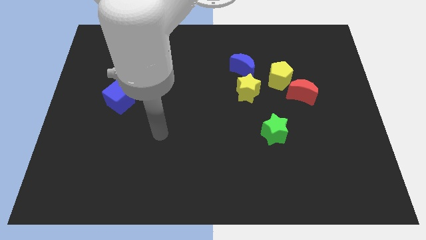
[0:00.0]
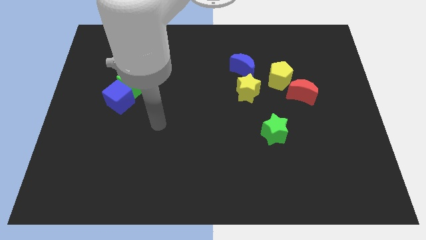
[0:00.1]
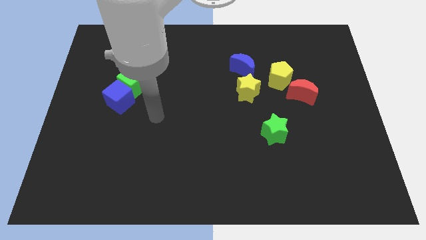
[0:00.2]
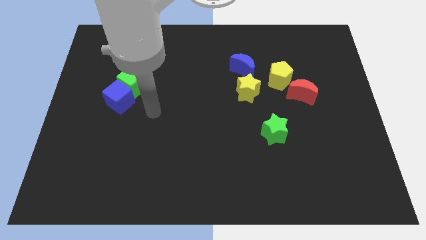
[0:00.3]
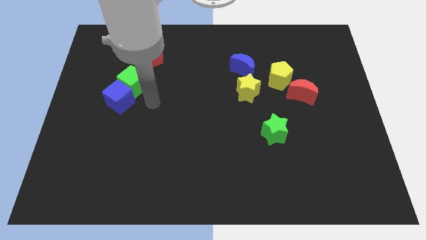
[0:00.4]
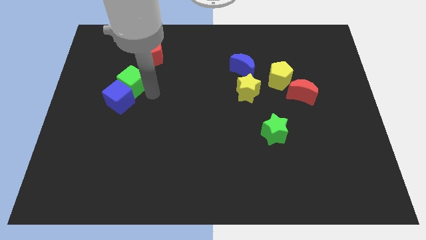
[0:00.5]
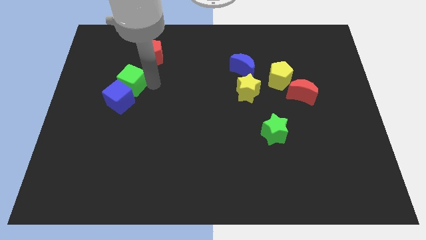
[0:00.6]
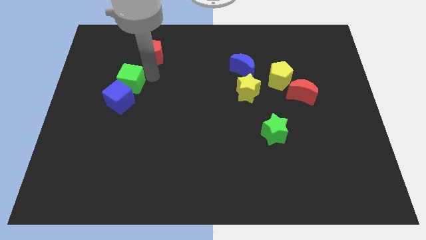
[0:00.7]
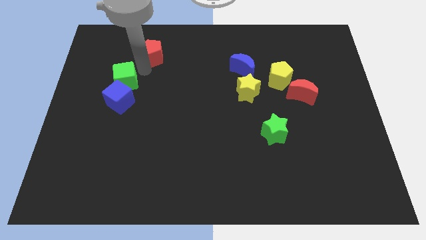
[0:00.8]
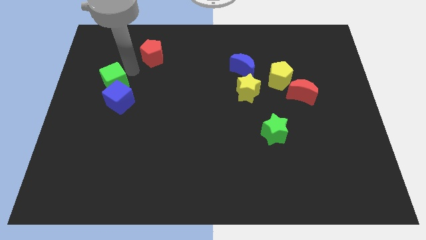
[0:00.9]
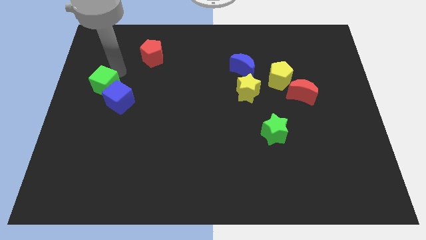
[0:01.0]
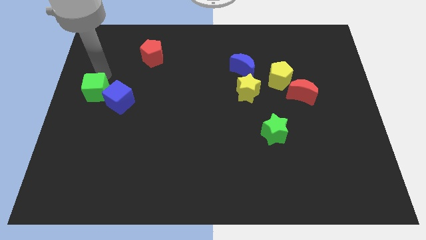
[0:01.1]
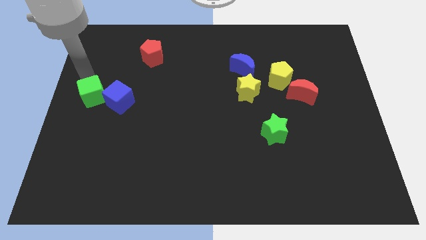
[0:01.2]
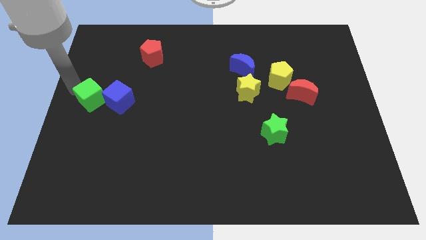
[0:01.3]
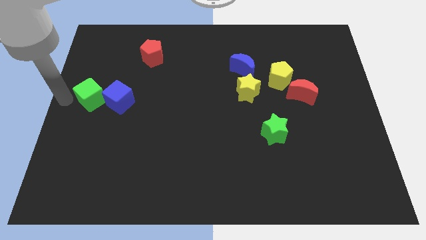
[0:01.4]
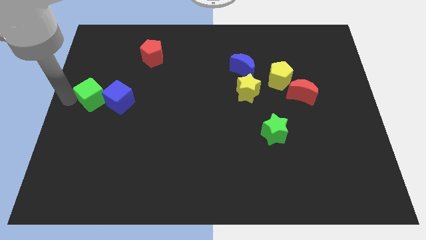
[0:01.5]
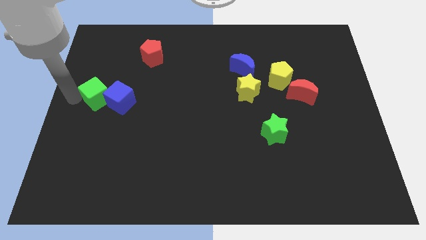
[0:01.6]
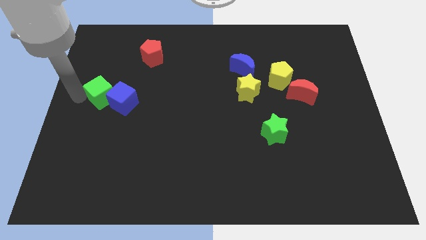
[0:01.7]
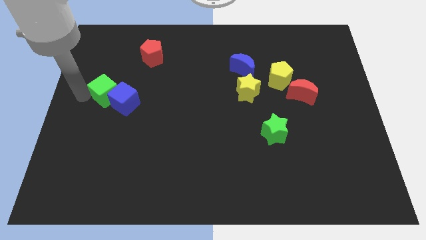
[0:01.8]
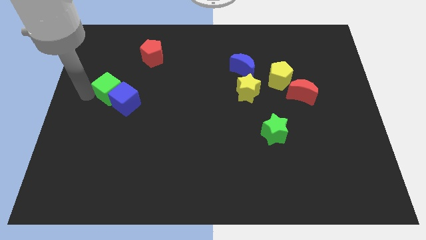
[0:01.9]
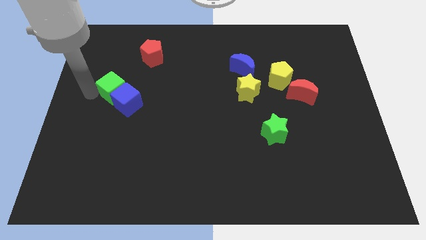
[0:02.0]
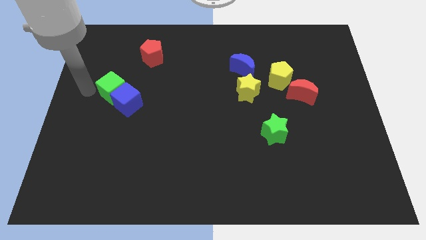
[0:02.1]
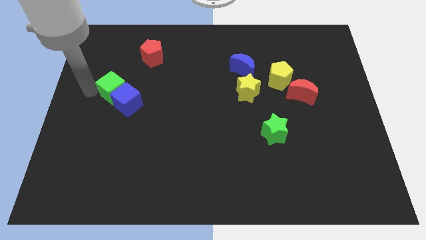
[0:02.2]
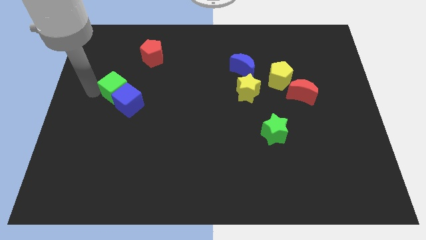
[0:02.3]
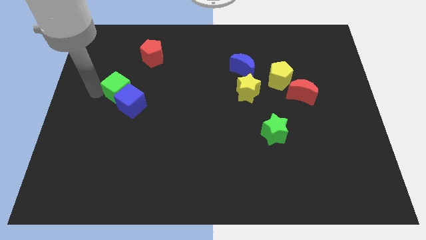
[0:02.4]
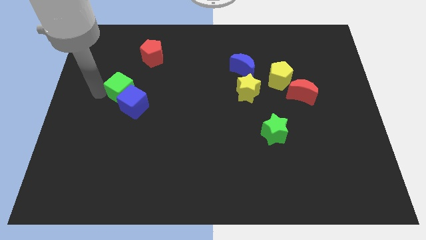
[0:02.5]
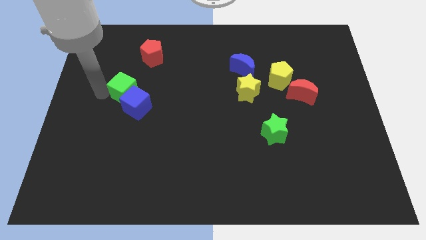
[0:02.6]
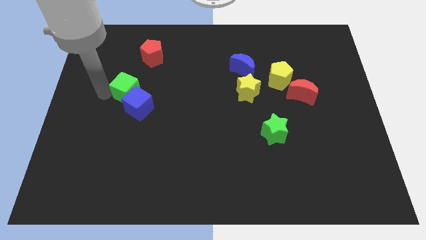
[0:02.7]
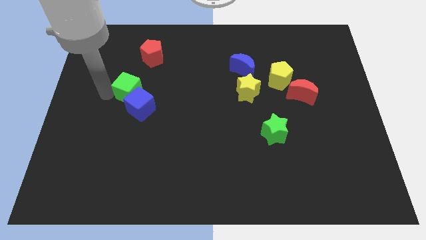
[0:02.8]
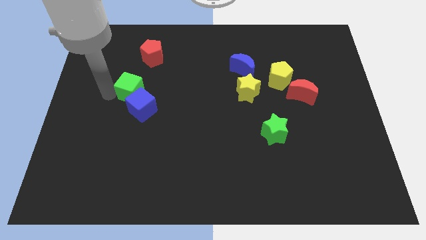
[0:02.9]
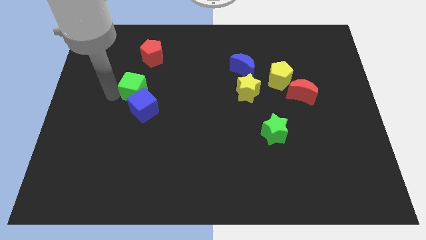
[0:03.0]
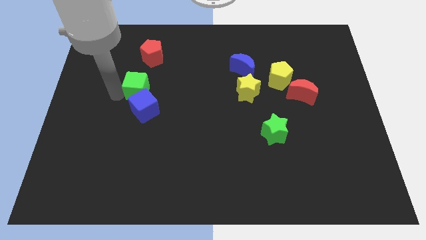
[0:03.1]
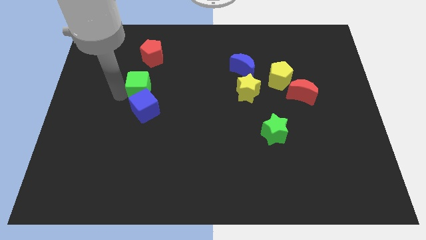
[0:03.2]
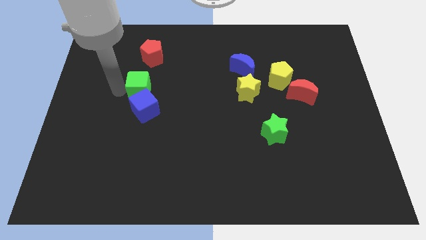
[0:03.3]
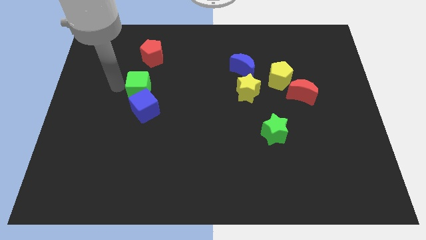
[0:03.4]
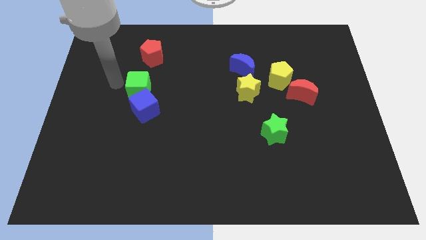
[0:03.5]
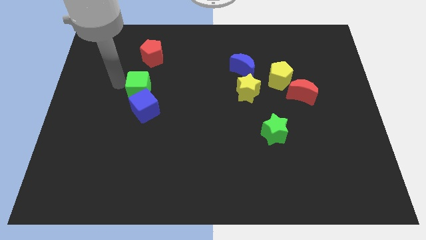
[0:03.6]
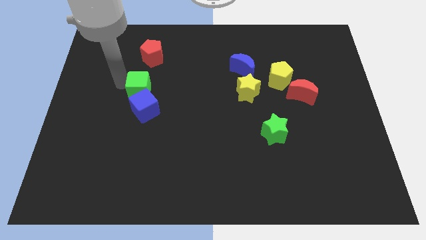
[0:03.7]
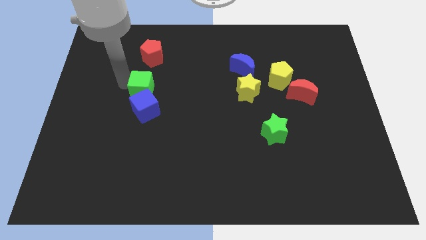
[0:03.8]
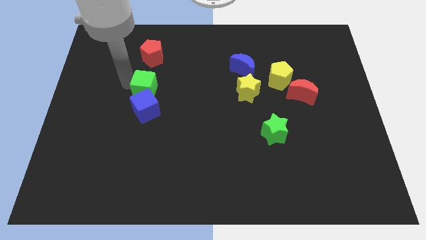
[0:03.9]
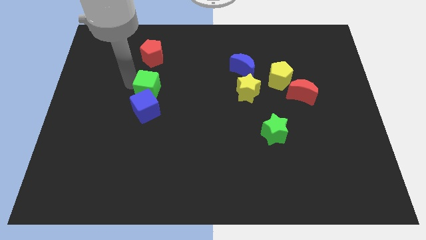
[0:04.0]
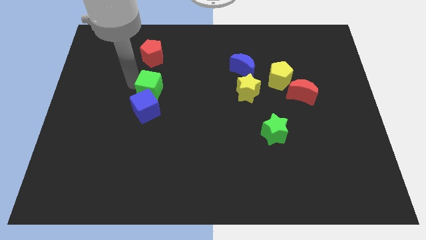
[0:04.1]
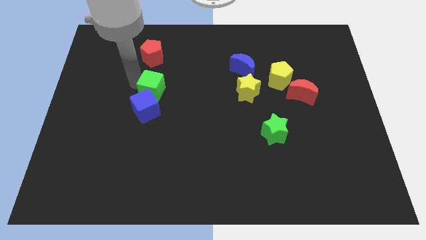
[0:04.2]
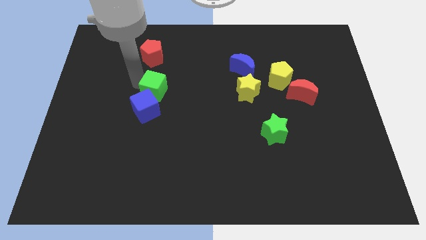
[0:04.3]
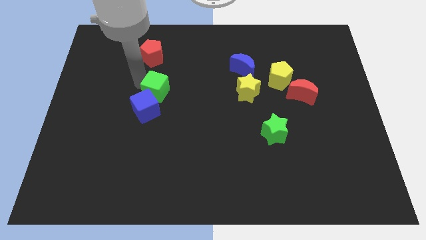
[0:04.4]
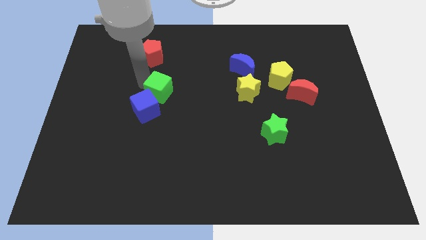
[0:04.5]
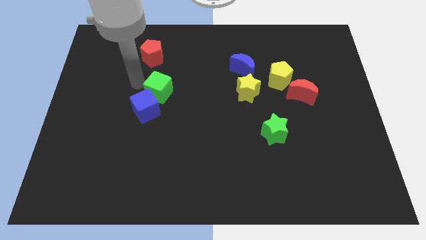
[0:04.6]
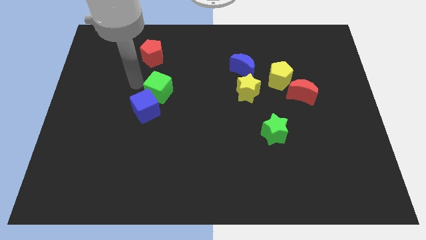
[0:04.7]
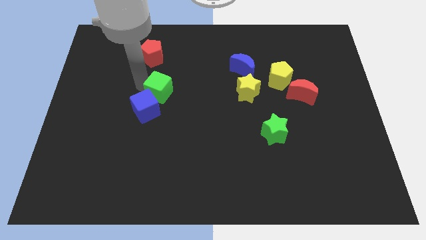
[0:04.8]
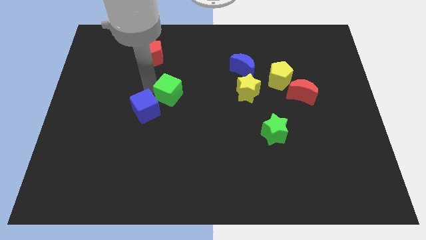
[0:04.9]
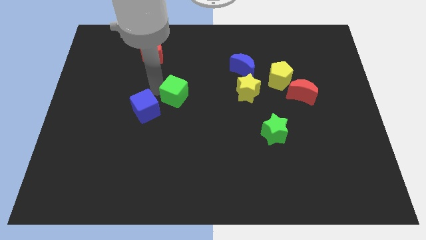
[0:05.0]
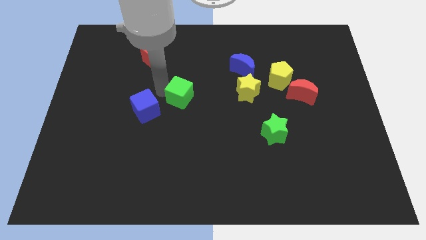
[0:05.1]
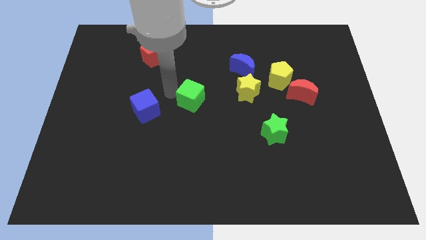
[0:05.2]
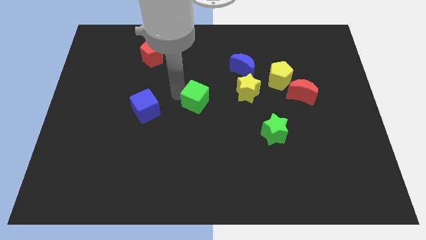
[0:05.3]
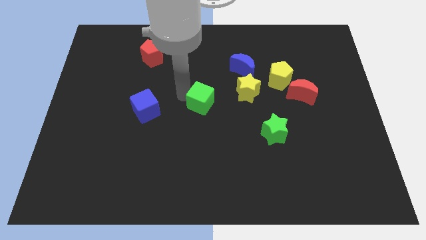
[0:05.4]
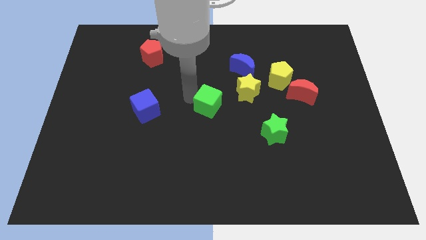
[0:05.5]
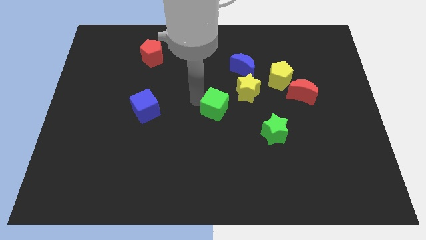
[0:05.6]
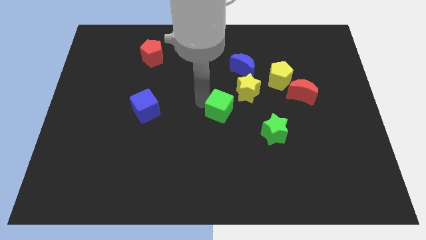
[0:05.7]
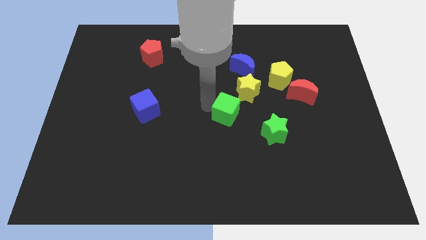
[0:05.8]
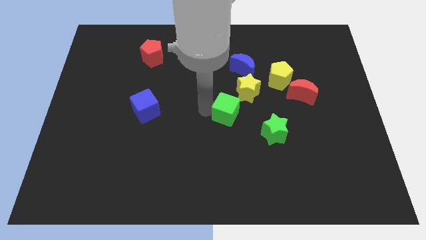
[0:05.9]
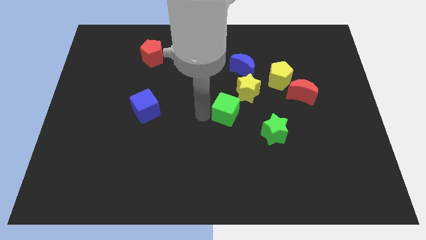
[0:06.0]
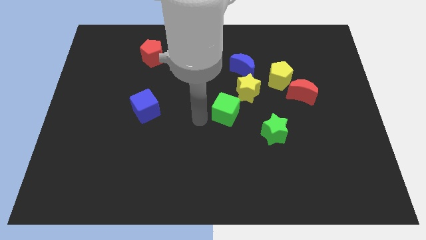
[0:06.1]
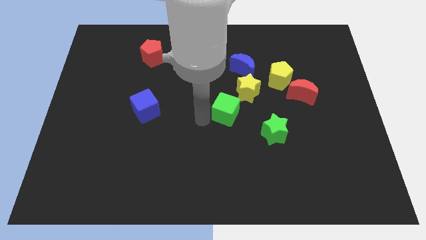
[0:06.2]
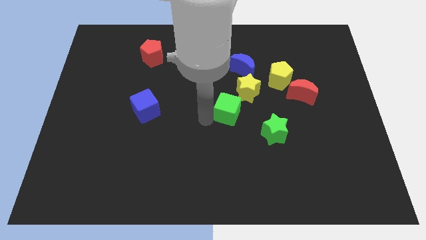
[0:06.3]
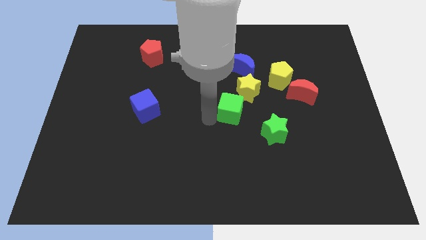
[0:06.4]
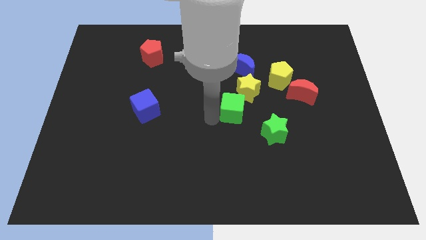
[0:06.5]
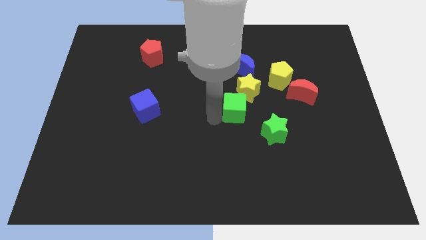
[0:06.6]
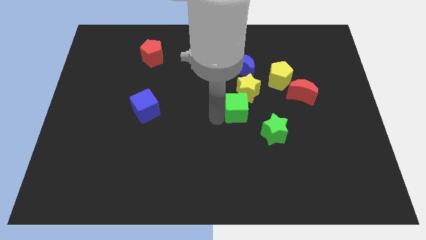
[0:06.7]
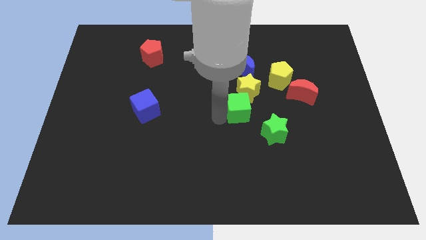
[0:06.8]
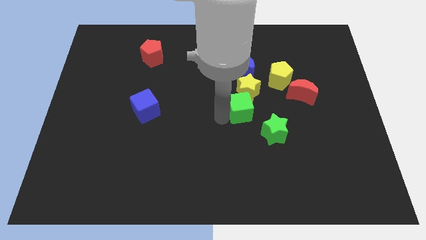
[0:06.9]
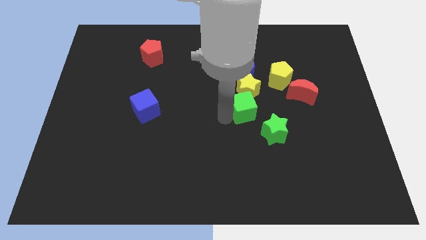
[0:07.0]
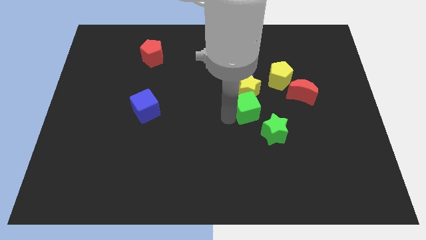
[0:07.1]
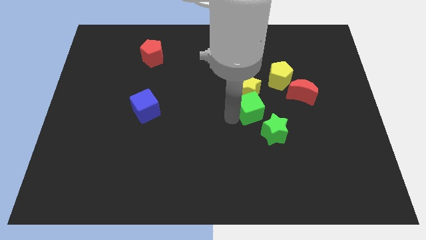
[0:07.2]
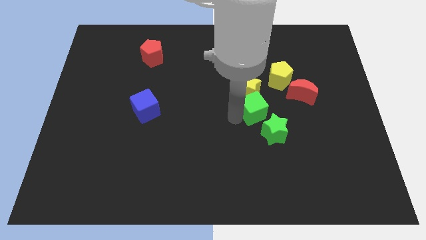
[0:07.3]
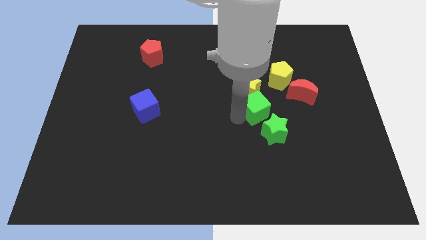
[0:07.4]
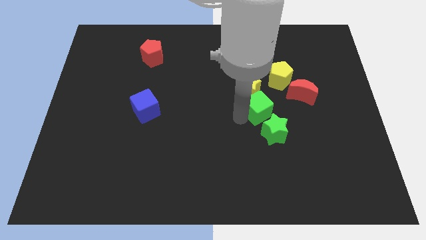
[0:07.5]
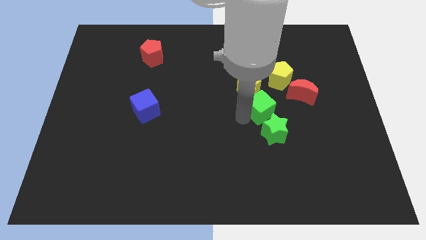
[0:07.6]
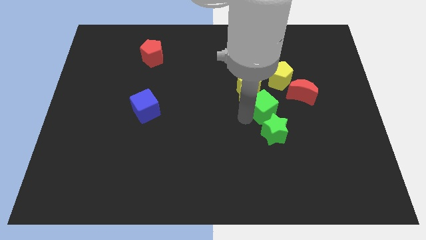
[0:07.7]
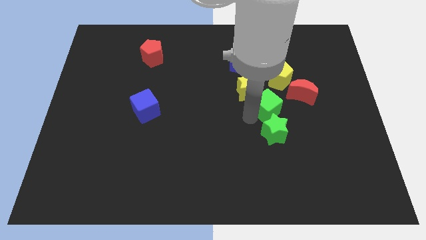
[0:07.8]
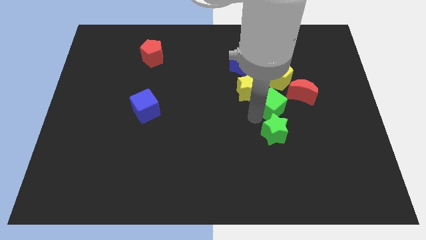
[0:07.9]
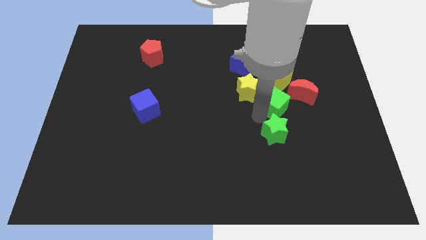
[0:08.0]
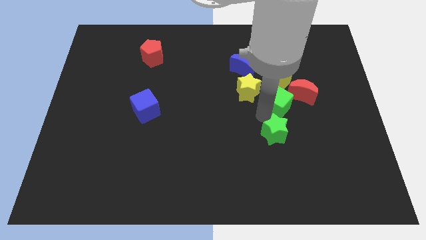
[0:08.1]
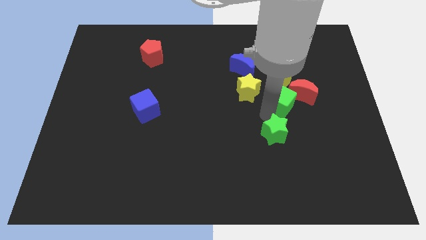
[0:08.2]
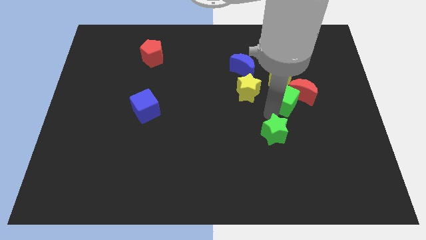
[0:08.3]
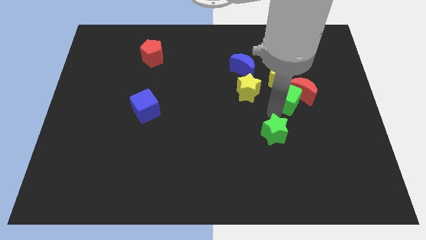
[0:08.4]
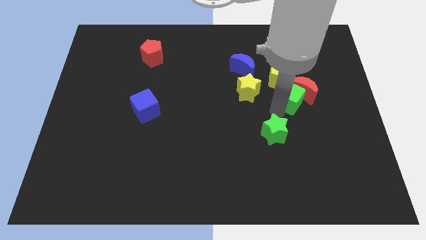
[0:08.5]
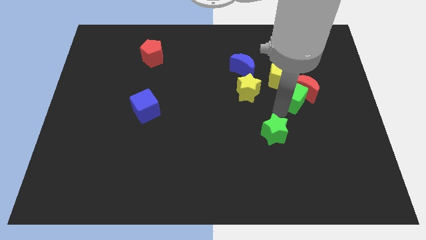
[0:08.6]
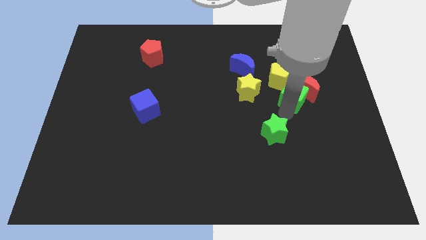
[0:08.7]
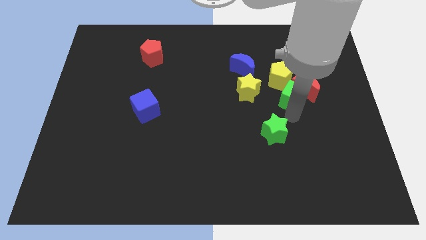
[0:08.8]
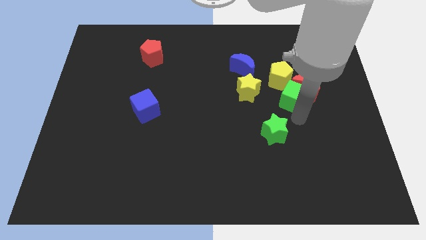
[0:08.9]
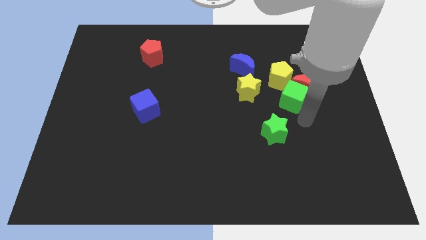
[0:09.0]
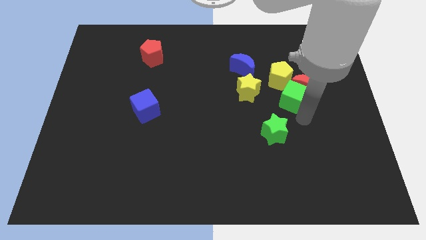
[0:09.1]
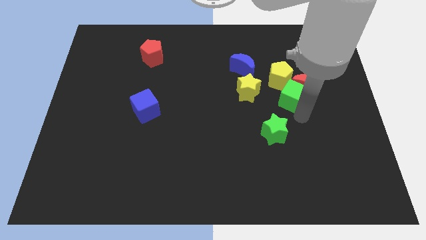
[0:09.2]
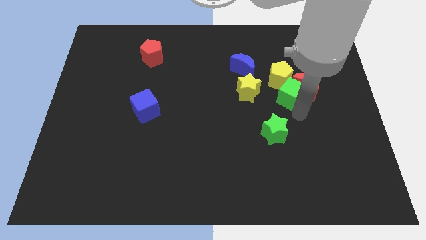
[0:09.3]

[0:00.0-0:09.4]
put the green cube towards the yellow pentagon
